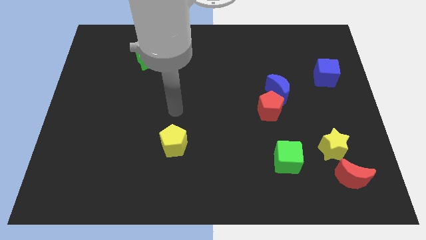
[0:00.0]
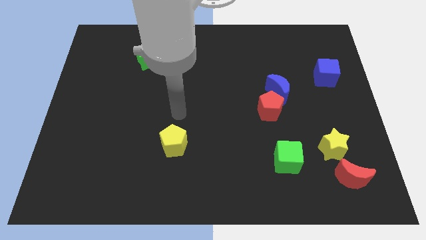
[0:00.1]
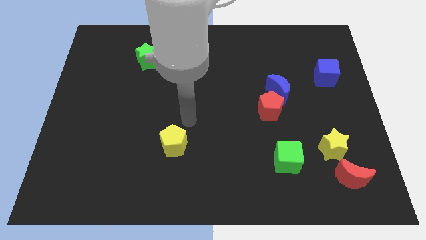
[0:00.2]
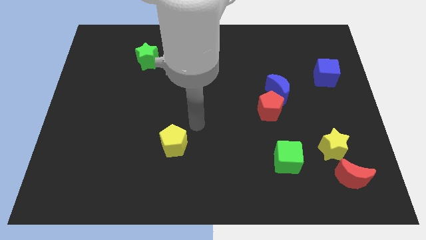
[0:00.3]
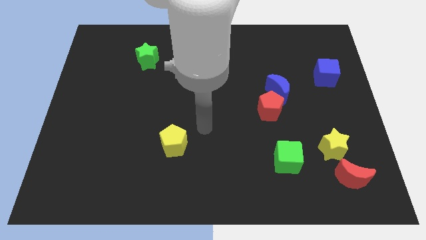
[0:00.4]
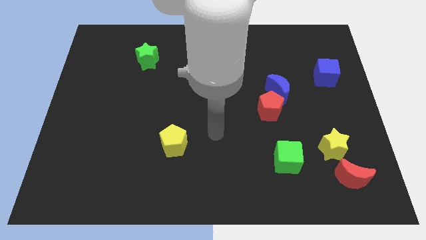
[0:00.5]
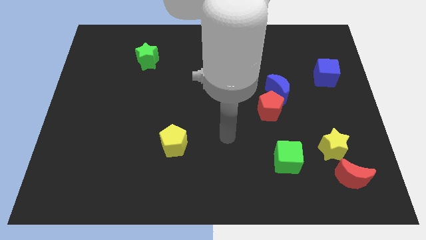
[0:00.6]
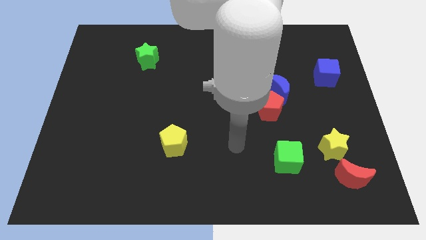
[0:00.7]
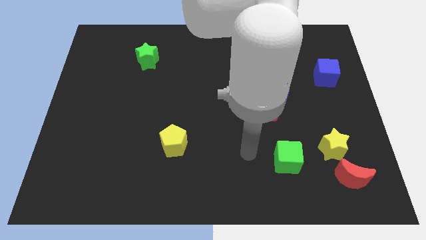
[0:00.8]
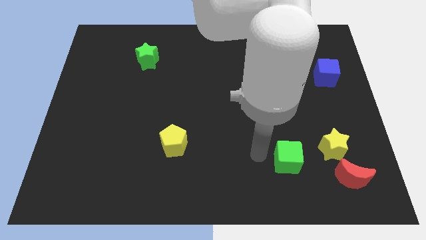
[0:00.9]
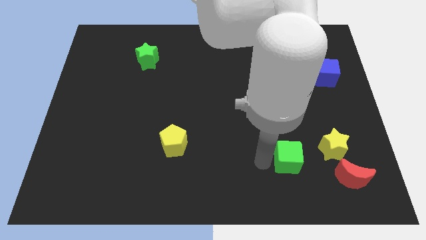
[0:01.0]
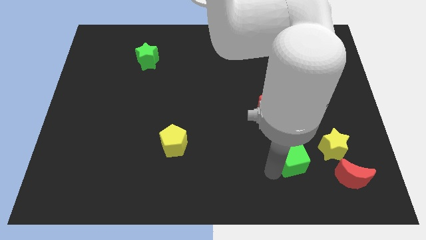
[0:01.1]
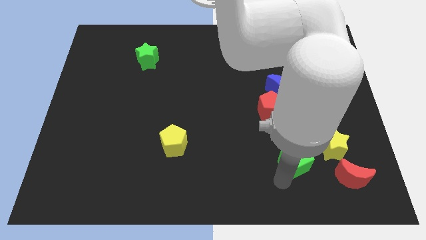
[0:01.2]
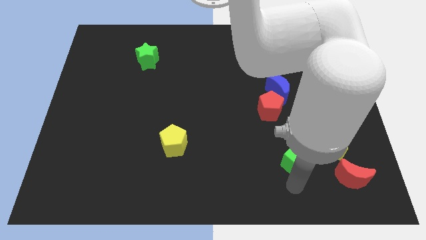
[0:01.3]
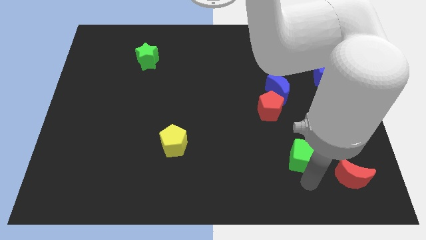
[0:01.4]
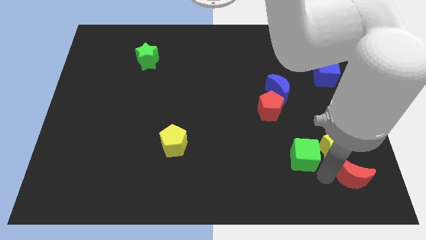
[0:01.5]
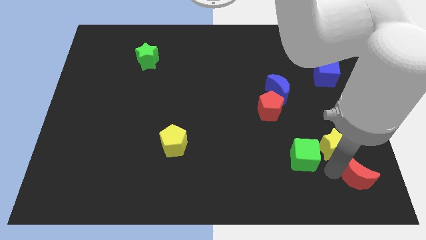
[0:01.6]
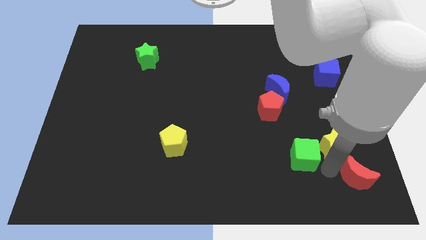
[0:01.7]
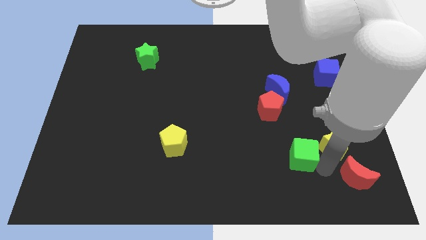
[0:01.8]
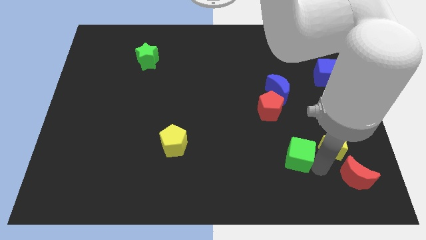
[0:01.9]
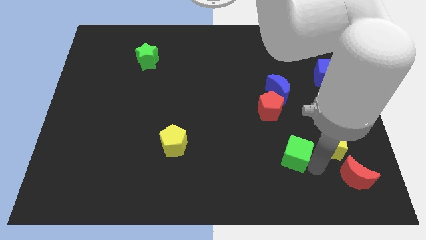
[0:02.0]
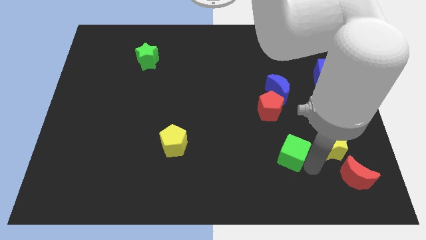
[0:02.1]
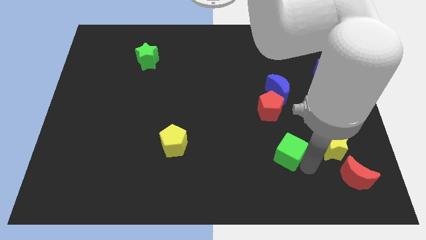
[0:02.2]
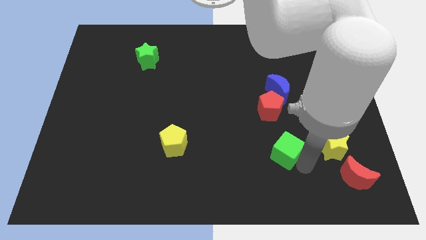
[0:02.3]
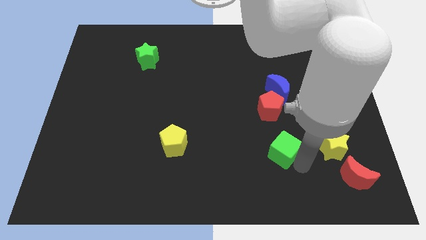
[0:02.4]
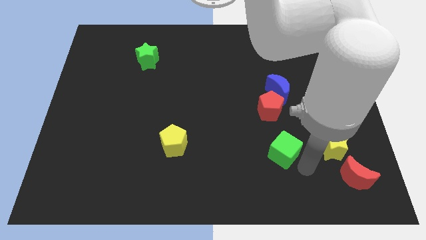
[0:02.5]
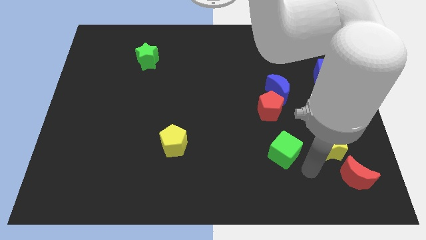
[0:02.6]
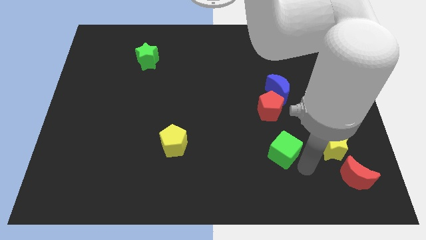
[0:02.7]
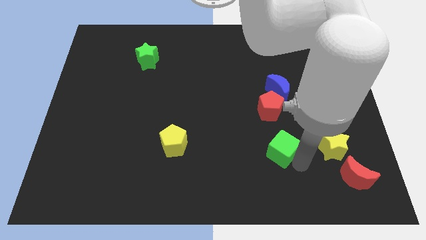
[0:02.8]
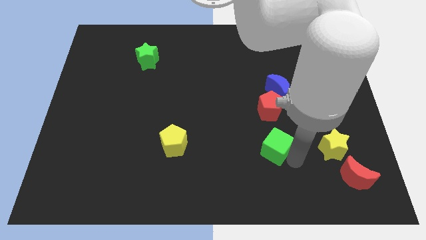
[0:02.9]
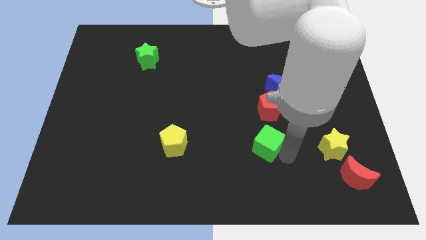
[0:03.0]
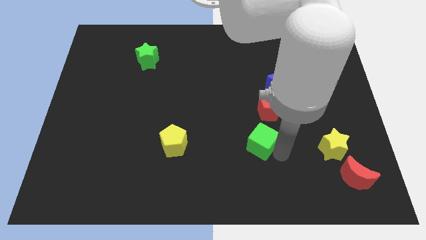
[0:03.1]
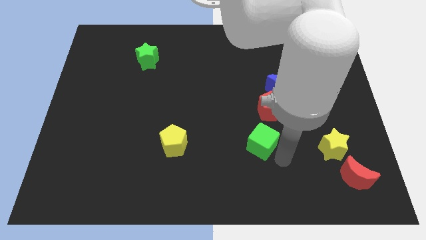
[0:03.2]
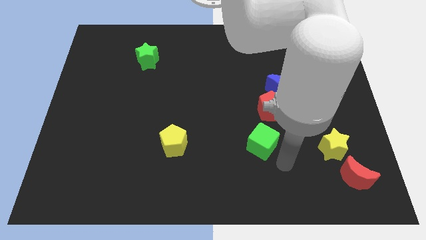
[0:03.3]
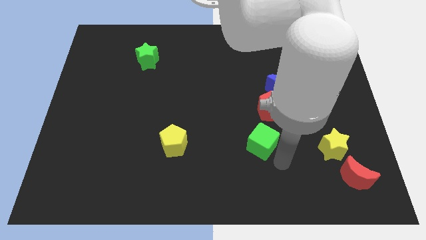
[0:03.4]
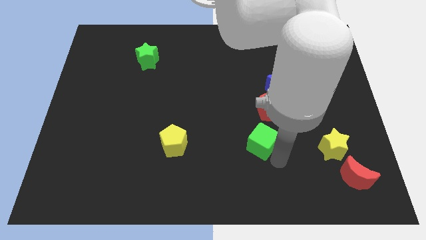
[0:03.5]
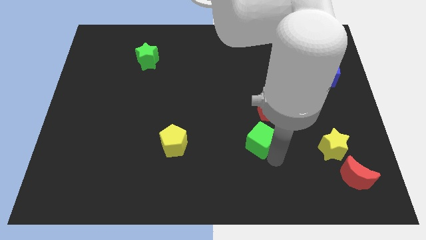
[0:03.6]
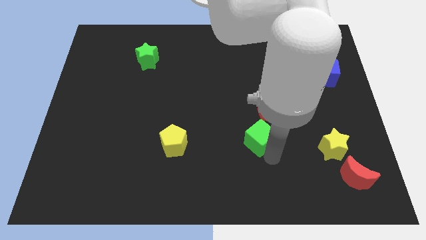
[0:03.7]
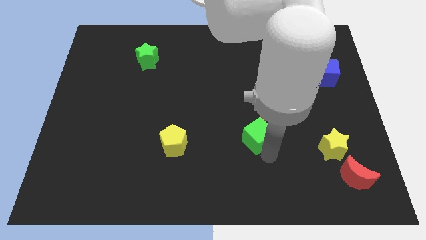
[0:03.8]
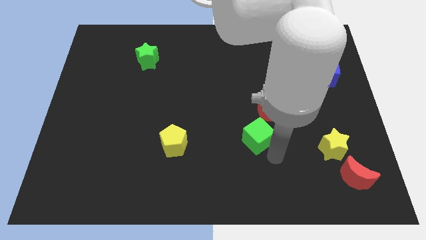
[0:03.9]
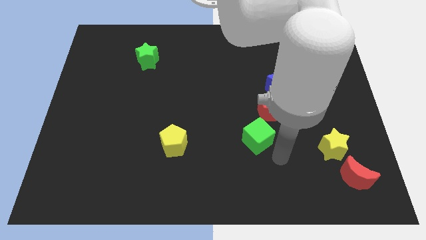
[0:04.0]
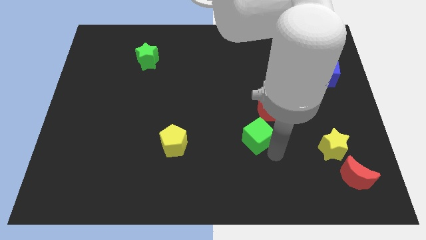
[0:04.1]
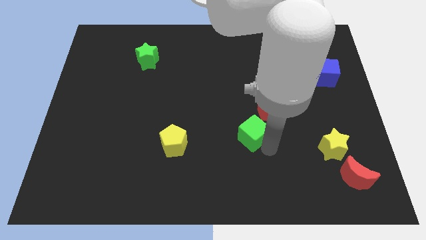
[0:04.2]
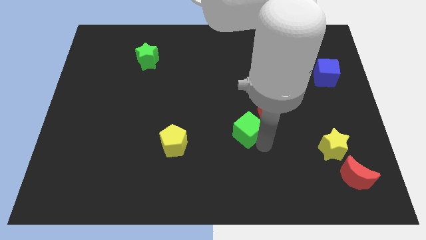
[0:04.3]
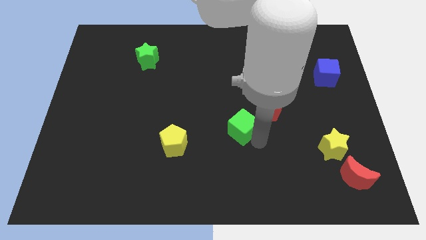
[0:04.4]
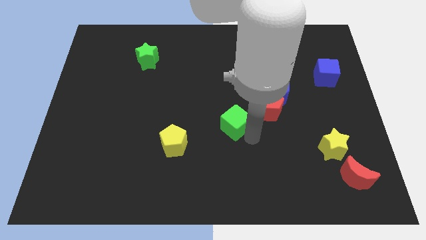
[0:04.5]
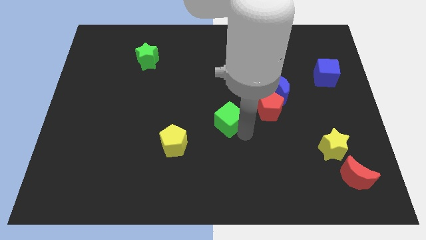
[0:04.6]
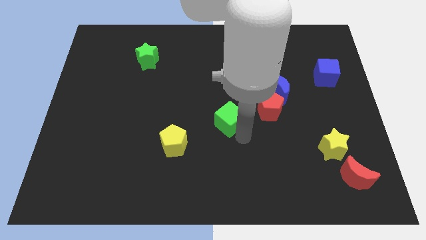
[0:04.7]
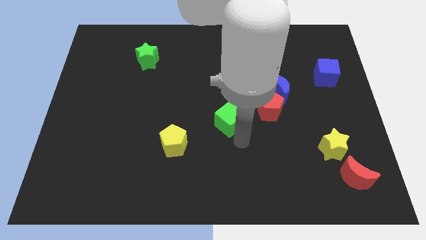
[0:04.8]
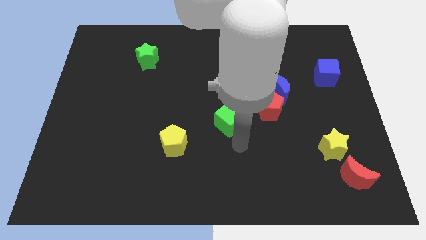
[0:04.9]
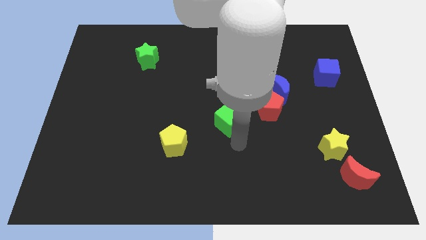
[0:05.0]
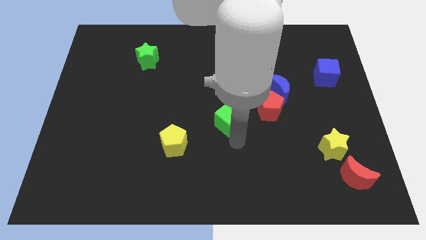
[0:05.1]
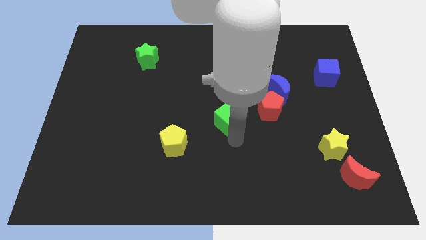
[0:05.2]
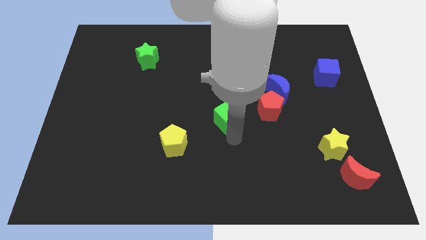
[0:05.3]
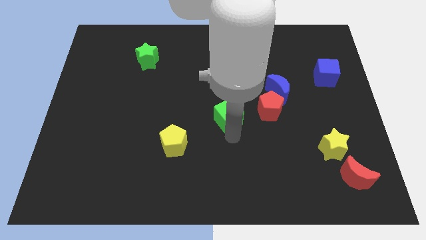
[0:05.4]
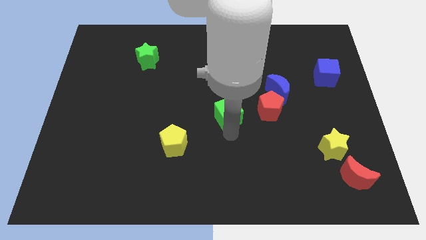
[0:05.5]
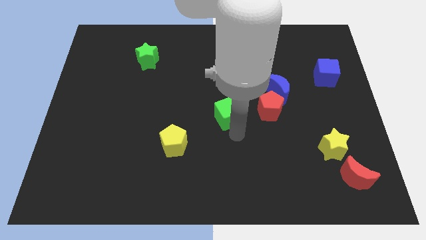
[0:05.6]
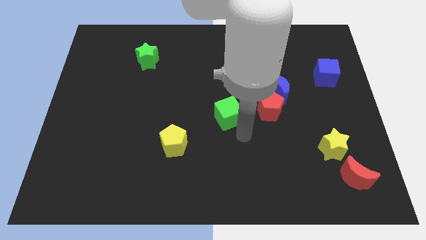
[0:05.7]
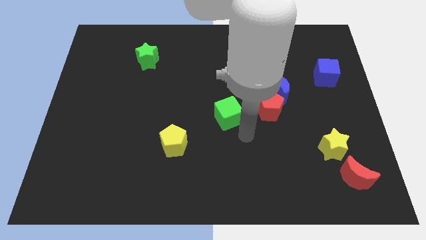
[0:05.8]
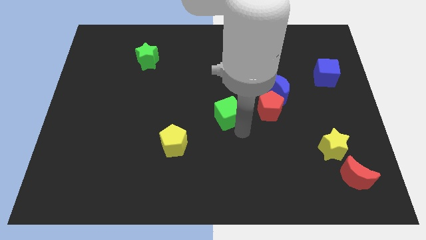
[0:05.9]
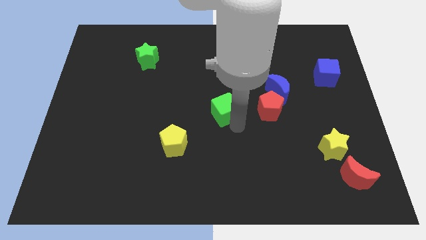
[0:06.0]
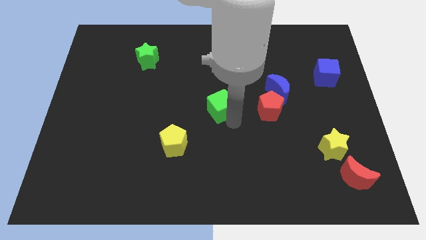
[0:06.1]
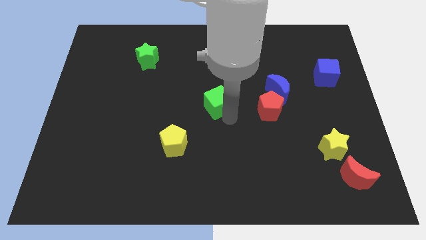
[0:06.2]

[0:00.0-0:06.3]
slide the green cube upwards and left

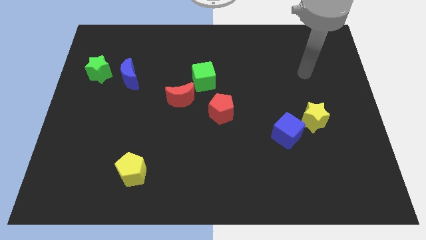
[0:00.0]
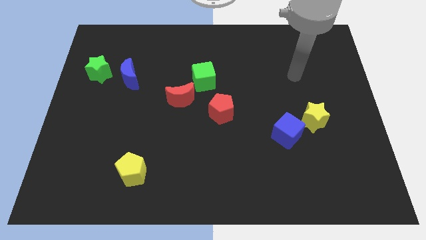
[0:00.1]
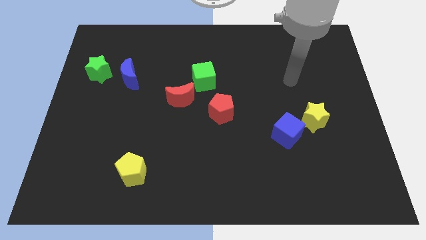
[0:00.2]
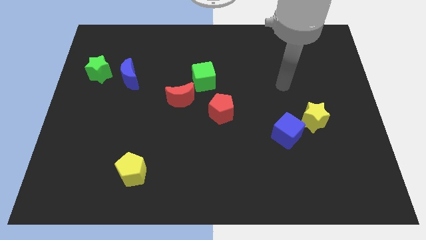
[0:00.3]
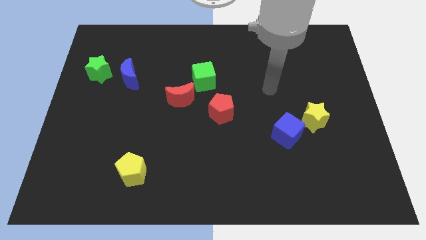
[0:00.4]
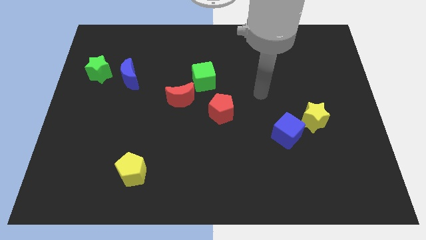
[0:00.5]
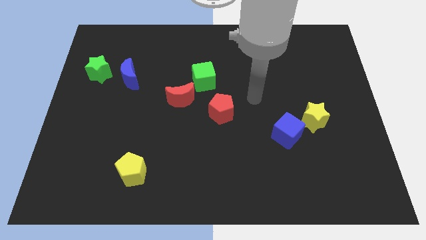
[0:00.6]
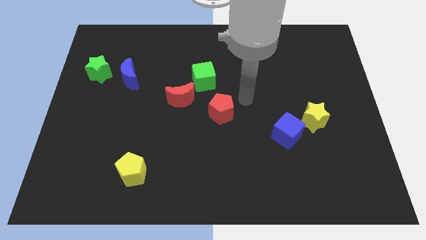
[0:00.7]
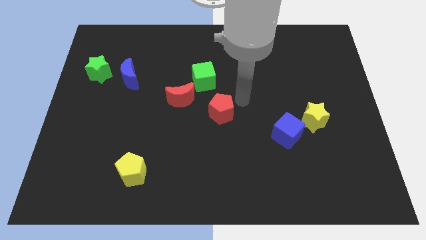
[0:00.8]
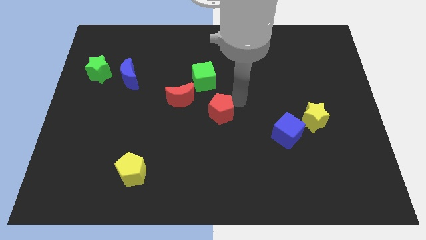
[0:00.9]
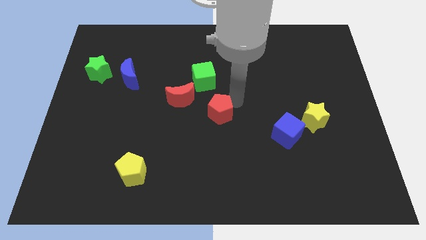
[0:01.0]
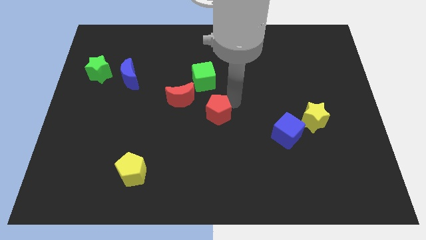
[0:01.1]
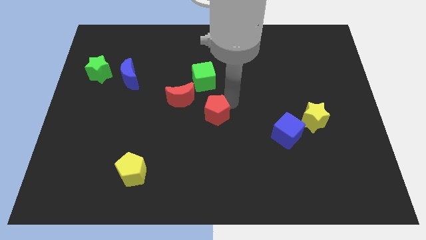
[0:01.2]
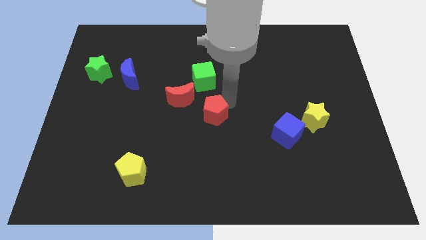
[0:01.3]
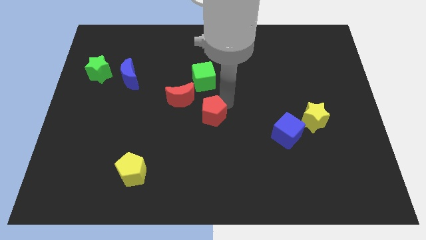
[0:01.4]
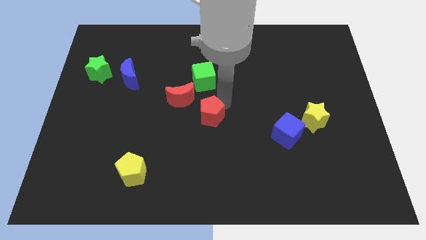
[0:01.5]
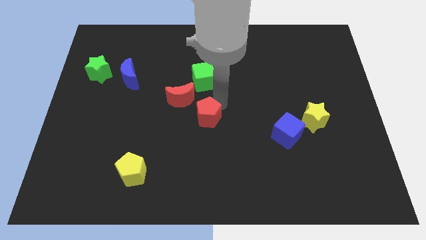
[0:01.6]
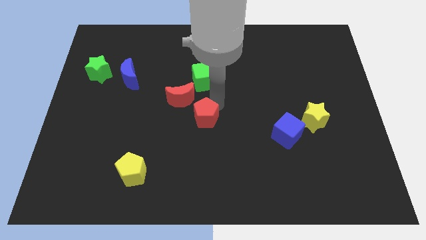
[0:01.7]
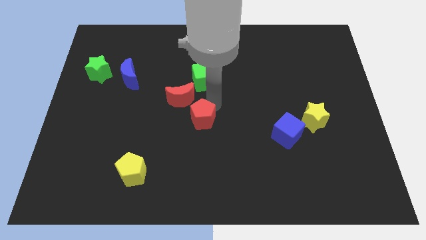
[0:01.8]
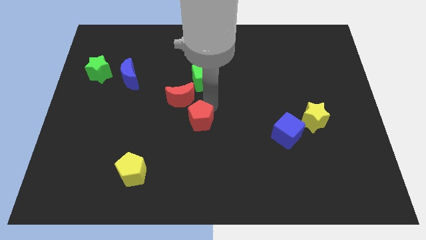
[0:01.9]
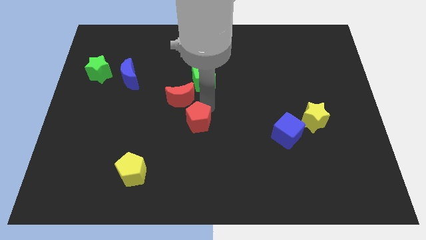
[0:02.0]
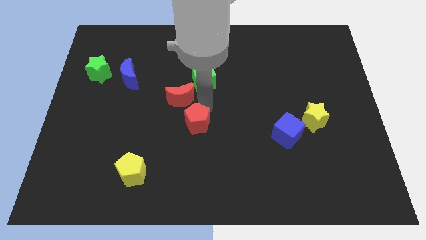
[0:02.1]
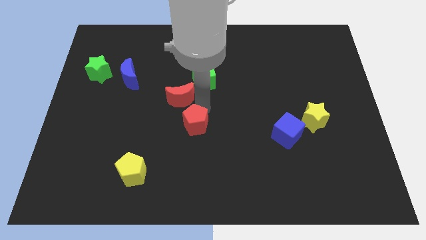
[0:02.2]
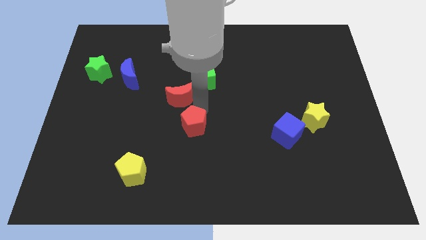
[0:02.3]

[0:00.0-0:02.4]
move the red pentagon slightly diagonally downwards and left
